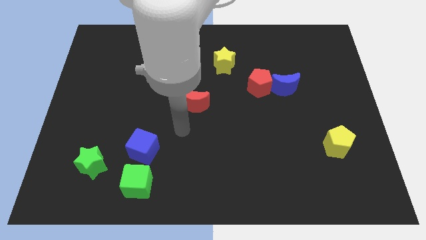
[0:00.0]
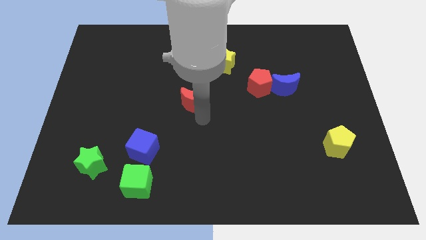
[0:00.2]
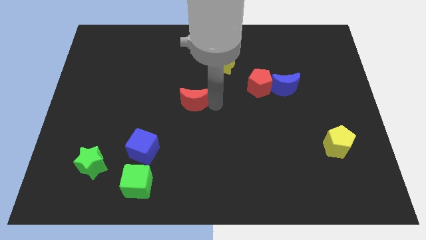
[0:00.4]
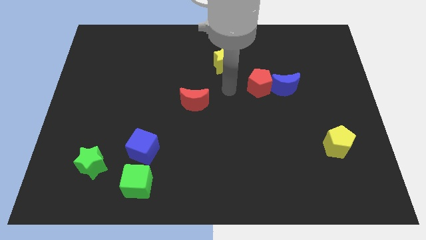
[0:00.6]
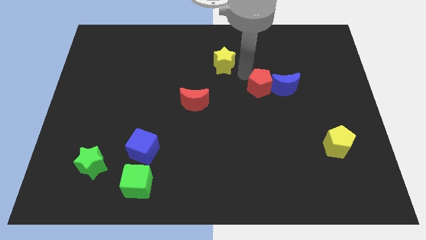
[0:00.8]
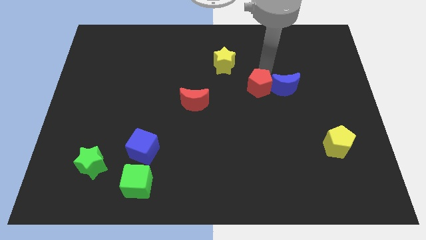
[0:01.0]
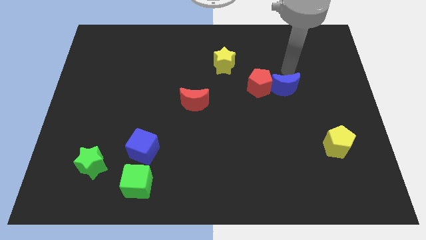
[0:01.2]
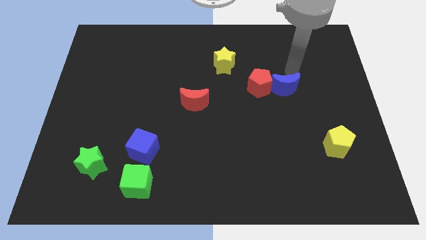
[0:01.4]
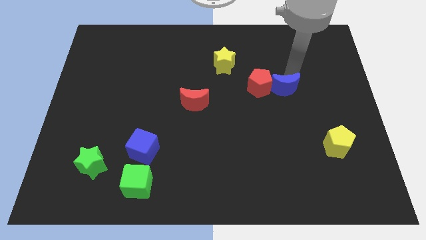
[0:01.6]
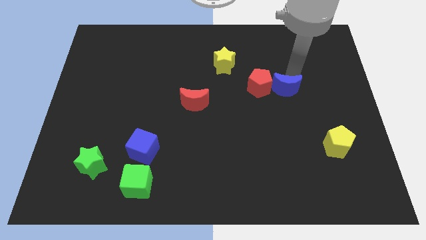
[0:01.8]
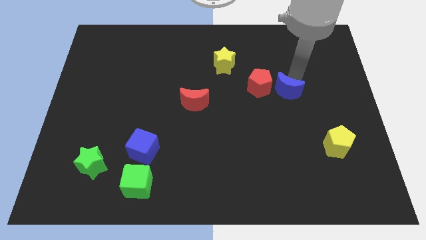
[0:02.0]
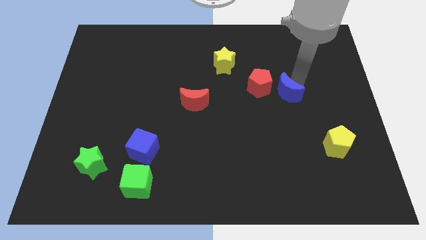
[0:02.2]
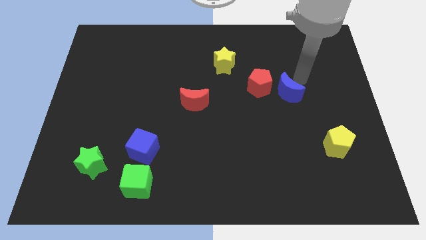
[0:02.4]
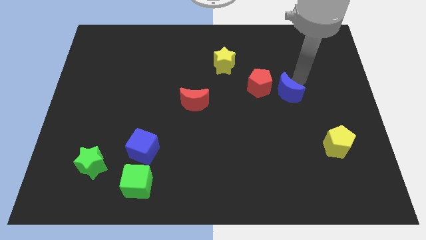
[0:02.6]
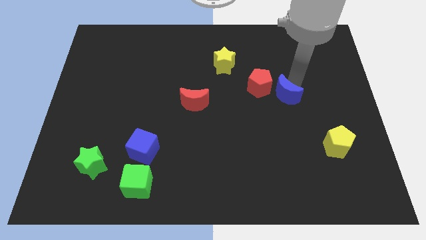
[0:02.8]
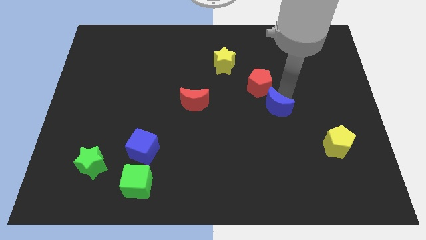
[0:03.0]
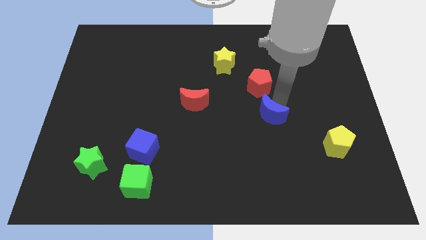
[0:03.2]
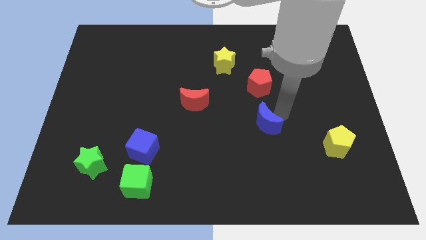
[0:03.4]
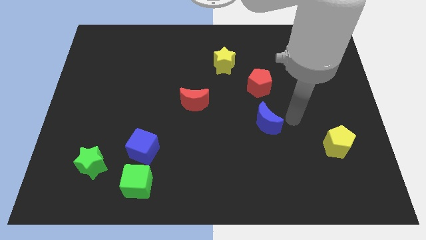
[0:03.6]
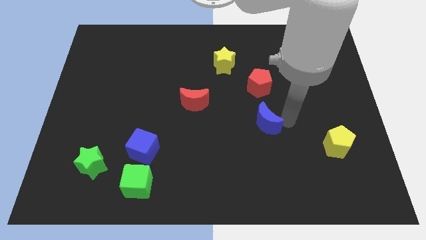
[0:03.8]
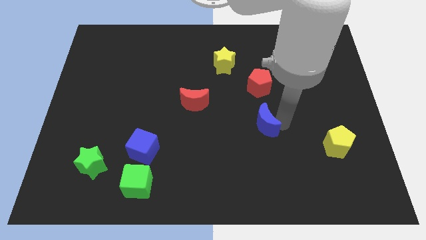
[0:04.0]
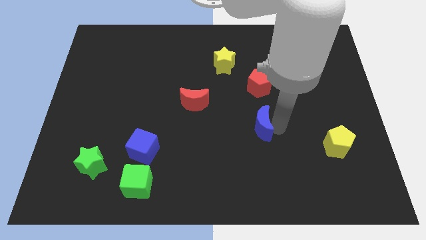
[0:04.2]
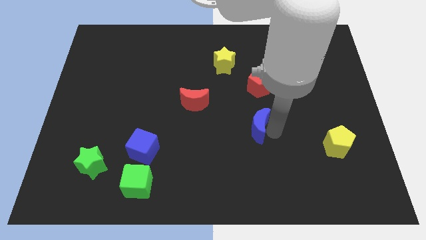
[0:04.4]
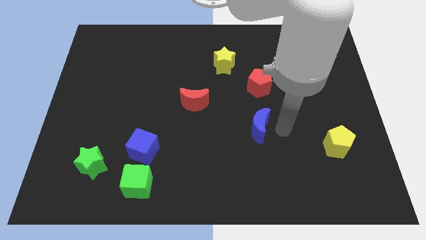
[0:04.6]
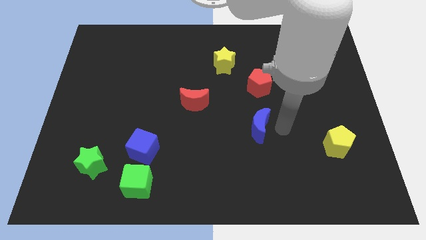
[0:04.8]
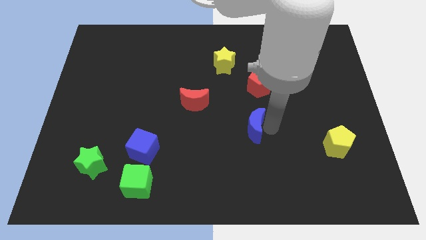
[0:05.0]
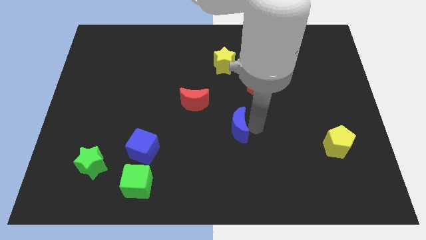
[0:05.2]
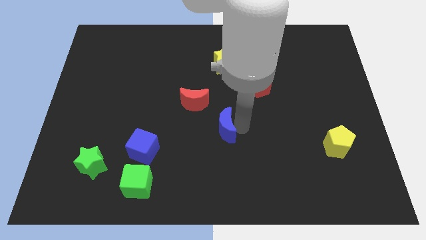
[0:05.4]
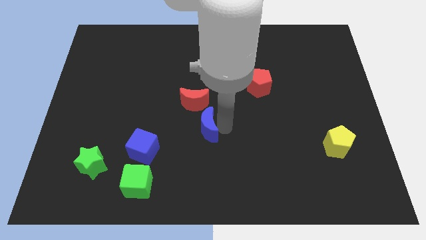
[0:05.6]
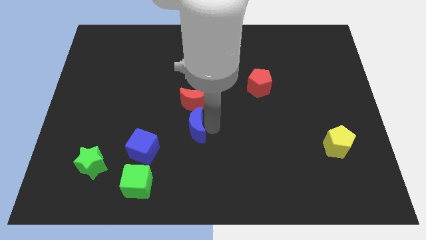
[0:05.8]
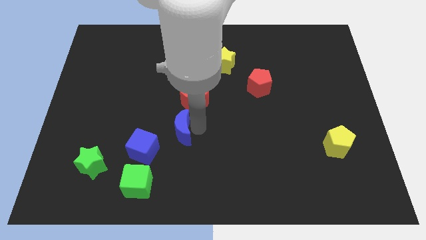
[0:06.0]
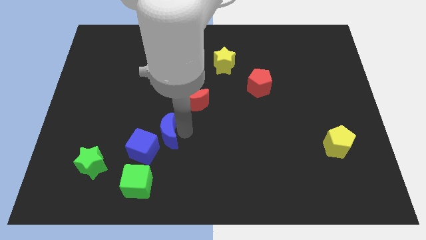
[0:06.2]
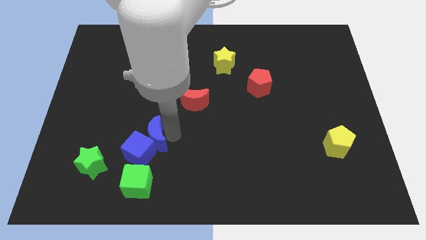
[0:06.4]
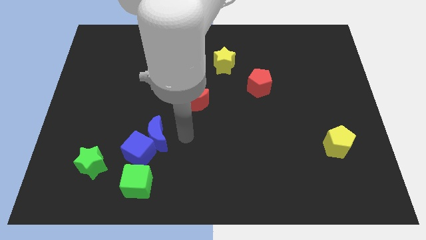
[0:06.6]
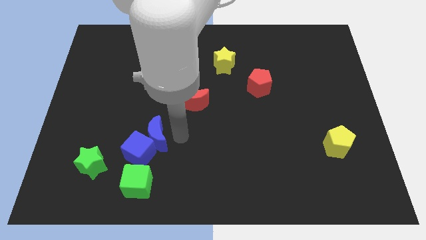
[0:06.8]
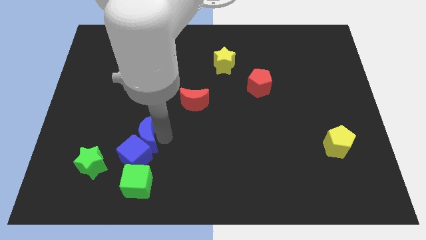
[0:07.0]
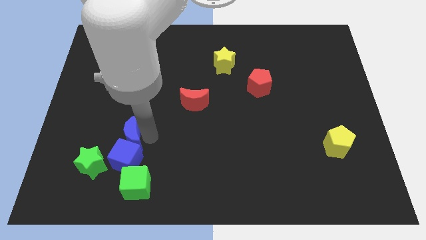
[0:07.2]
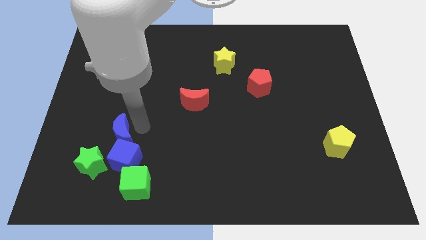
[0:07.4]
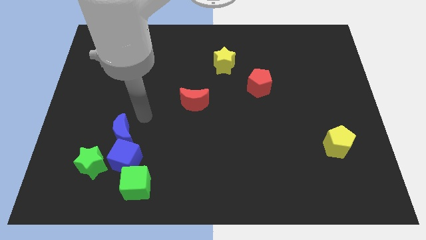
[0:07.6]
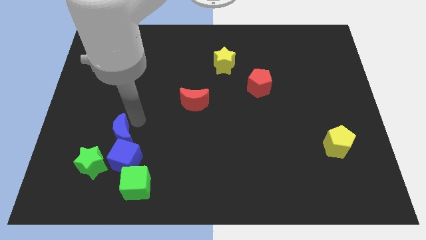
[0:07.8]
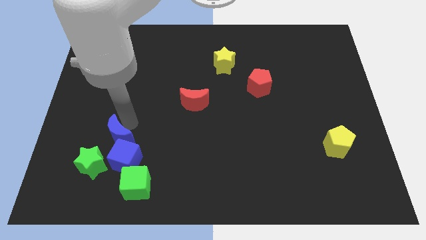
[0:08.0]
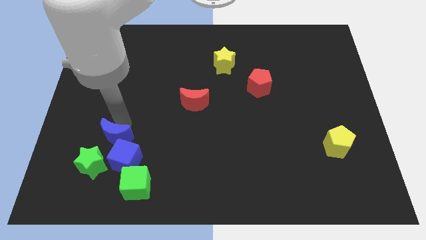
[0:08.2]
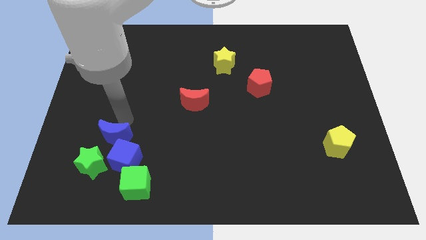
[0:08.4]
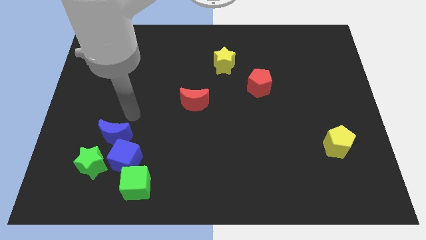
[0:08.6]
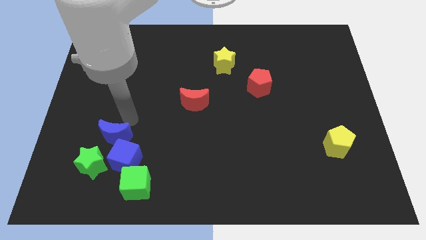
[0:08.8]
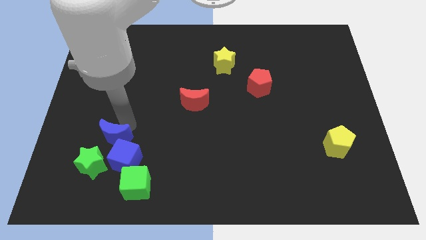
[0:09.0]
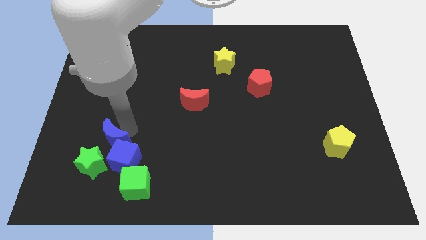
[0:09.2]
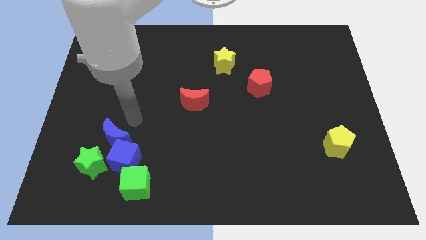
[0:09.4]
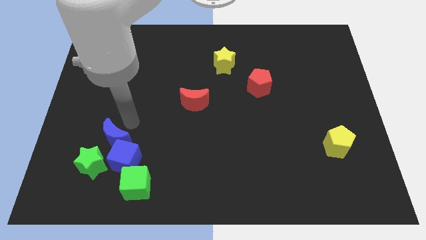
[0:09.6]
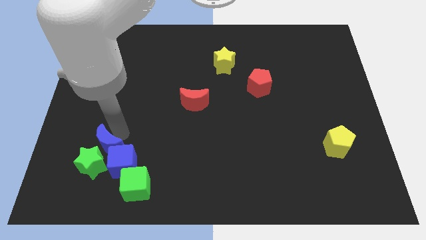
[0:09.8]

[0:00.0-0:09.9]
push the blue moon close to the green star

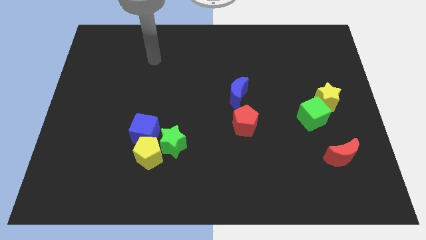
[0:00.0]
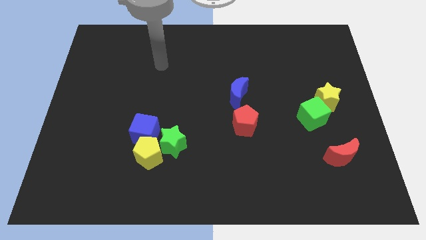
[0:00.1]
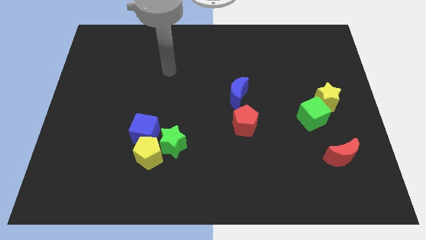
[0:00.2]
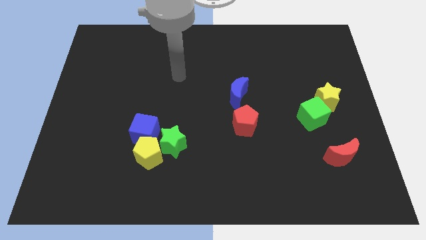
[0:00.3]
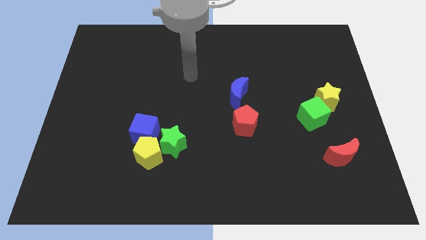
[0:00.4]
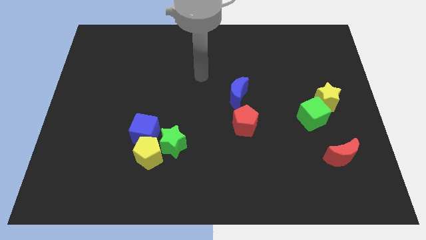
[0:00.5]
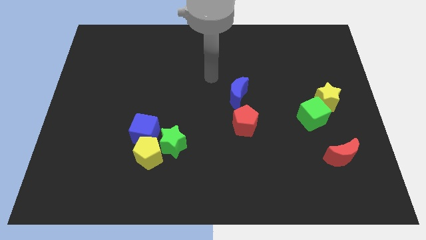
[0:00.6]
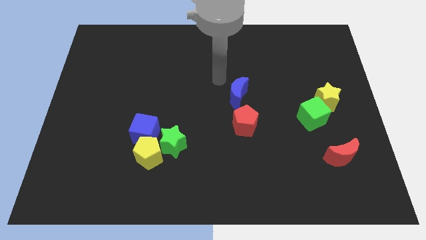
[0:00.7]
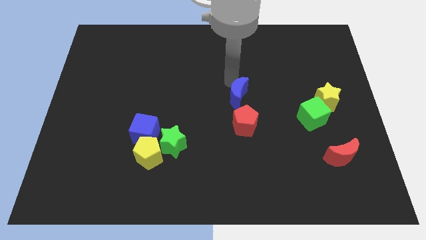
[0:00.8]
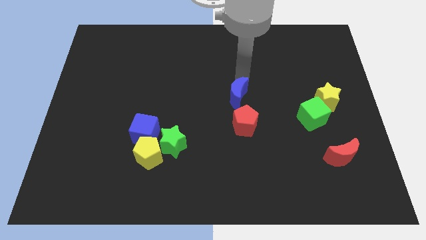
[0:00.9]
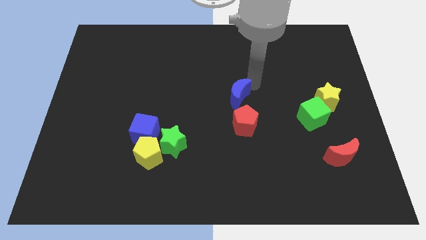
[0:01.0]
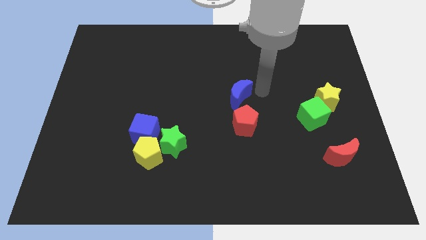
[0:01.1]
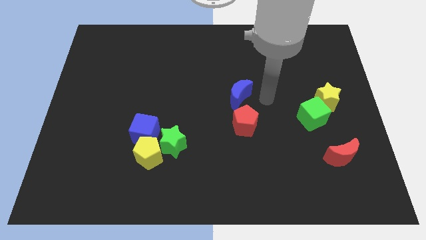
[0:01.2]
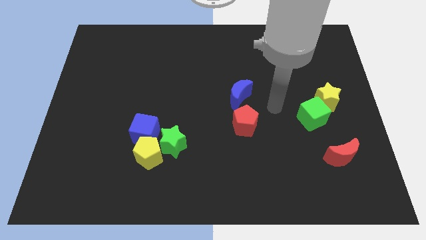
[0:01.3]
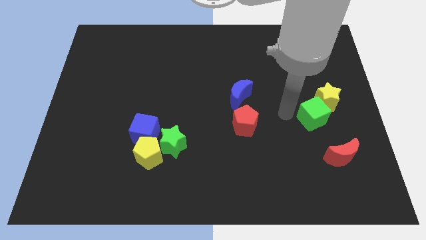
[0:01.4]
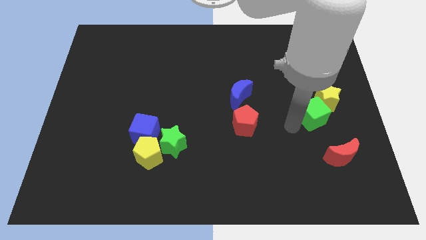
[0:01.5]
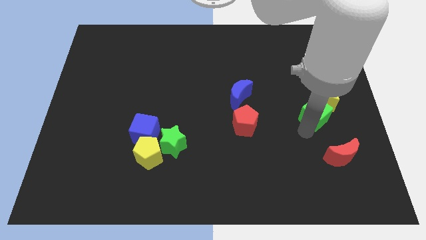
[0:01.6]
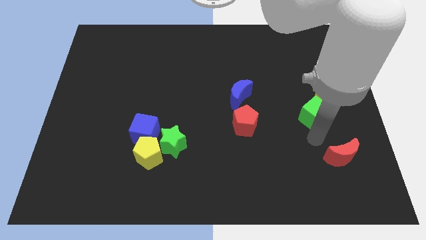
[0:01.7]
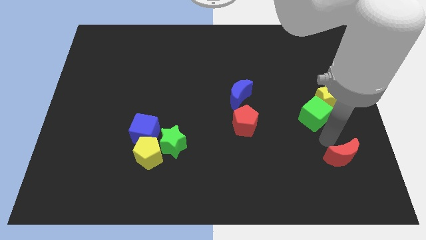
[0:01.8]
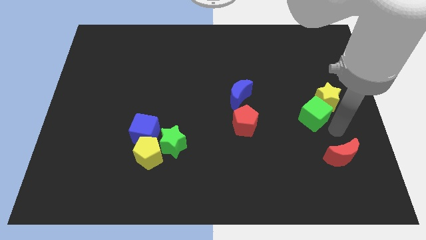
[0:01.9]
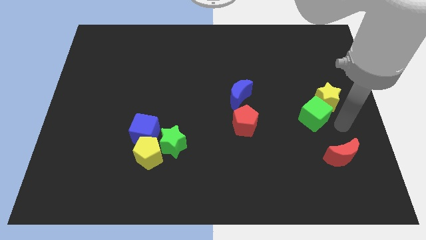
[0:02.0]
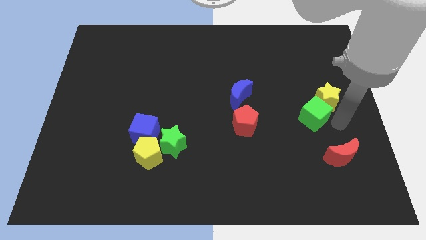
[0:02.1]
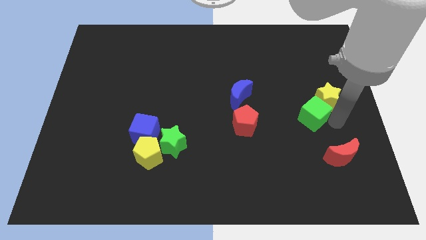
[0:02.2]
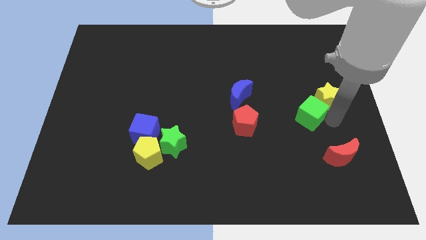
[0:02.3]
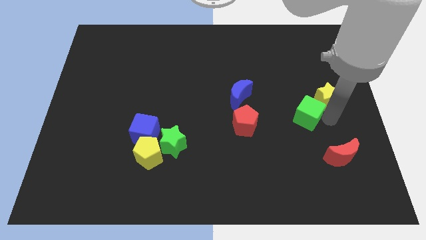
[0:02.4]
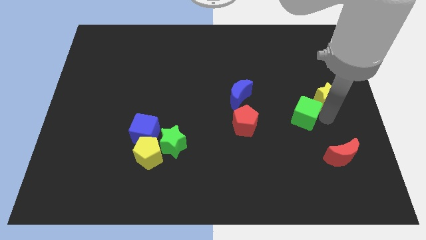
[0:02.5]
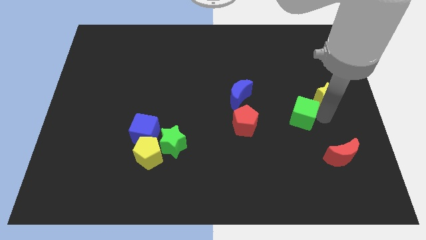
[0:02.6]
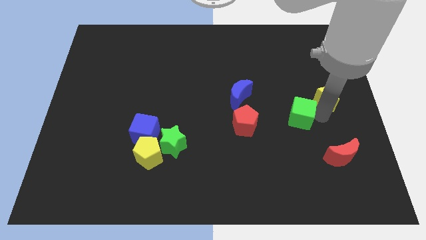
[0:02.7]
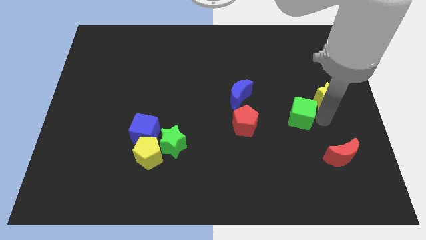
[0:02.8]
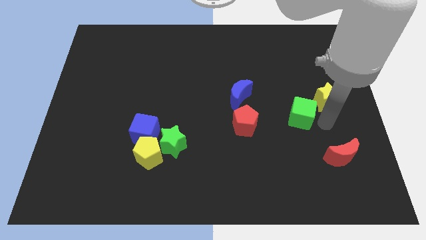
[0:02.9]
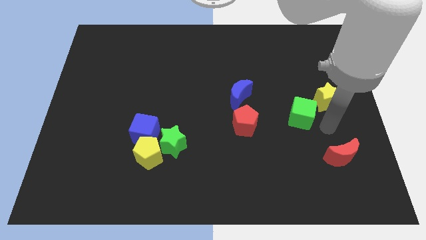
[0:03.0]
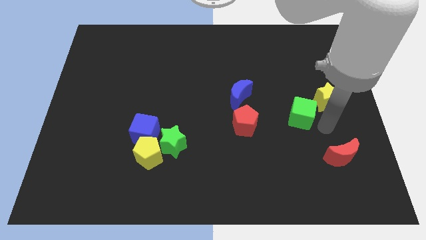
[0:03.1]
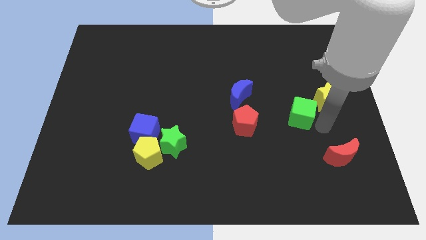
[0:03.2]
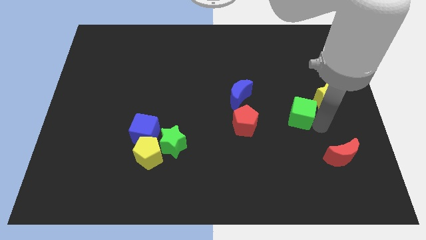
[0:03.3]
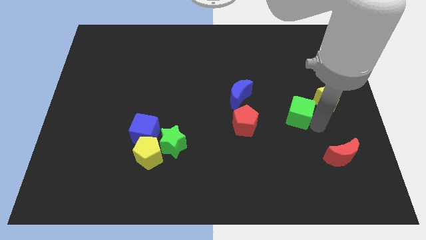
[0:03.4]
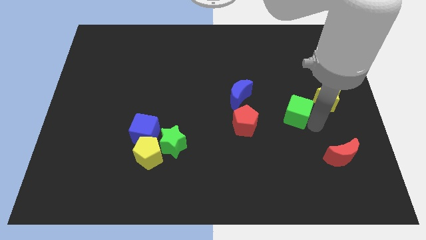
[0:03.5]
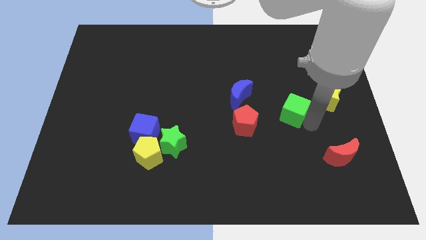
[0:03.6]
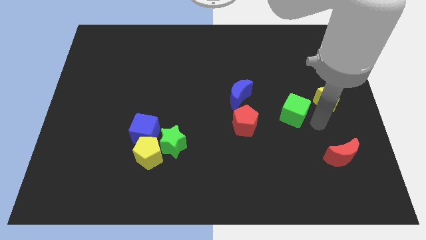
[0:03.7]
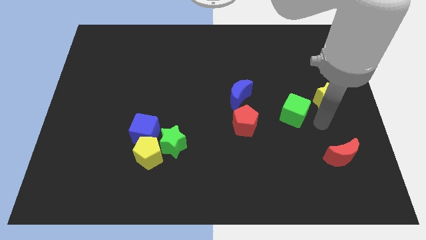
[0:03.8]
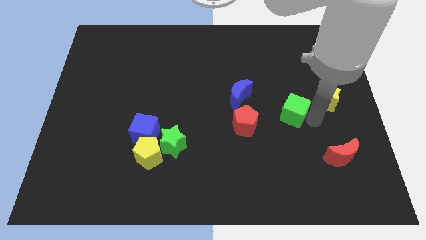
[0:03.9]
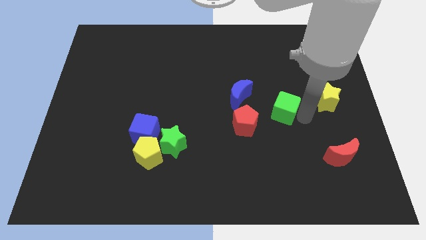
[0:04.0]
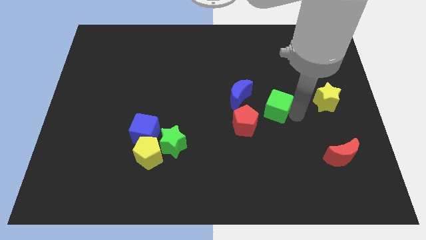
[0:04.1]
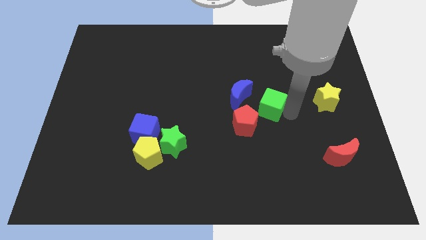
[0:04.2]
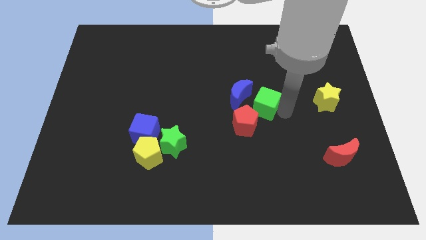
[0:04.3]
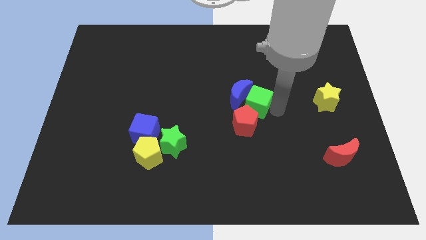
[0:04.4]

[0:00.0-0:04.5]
move the green cube next to the blue moon
